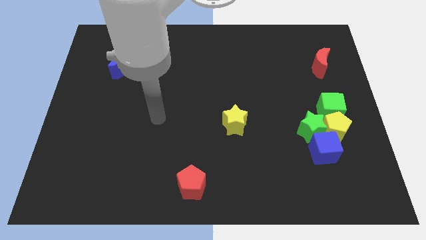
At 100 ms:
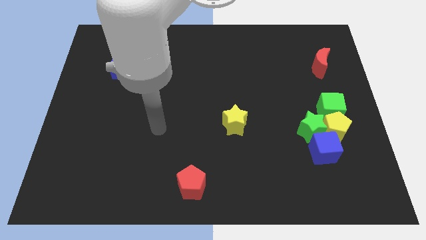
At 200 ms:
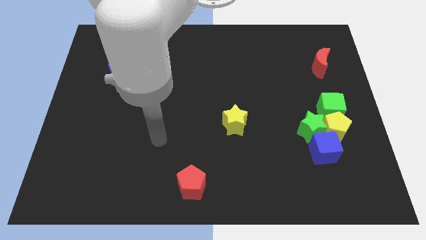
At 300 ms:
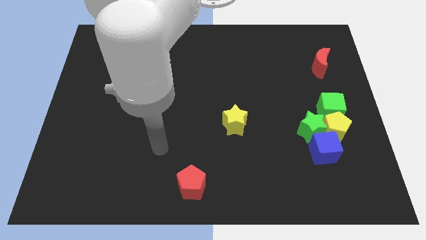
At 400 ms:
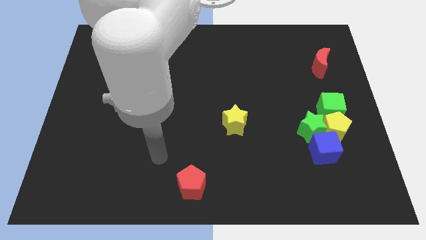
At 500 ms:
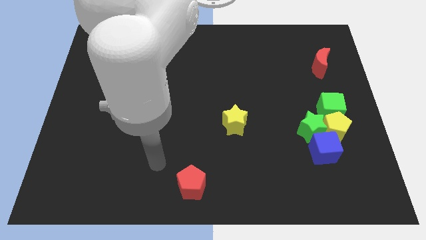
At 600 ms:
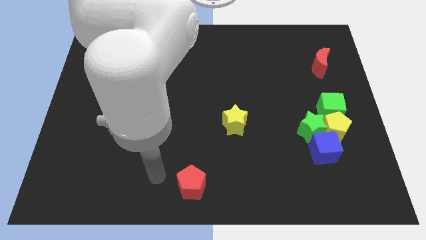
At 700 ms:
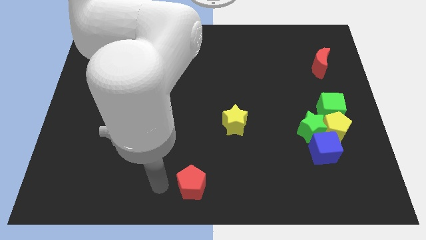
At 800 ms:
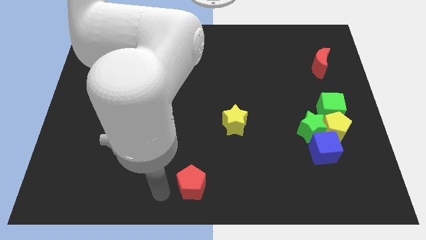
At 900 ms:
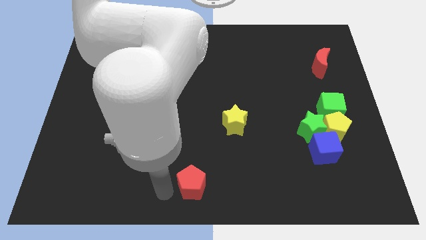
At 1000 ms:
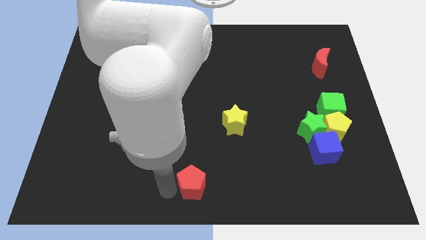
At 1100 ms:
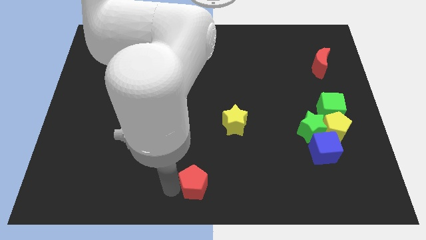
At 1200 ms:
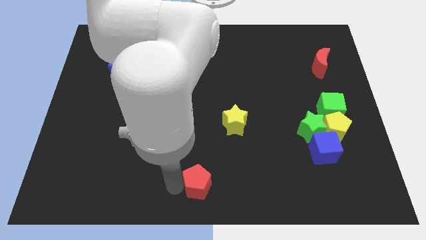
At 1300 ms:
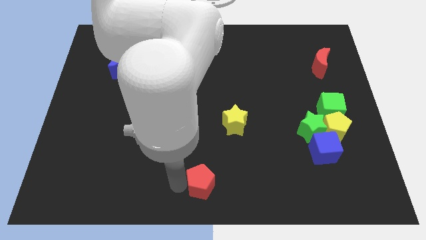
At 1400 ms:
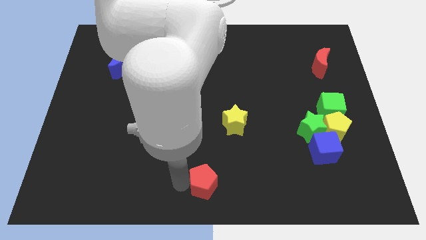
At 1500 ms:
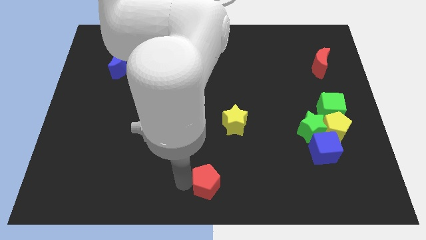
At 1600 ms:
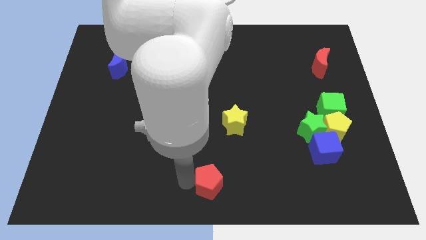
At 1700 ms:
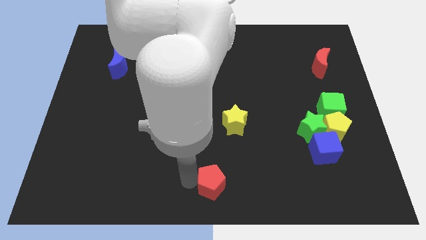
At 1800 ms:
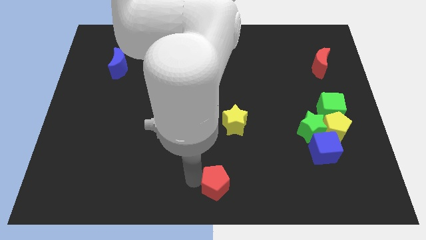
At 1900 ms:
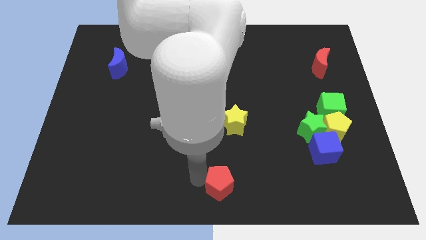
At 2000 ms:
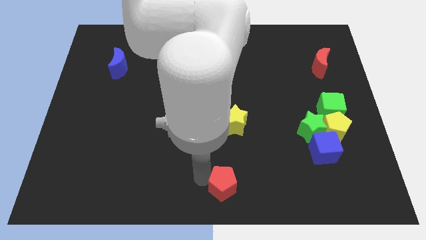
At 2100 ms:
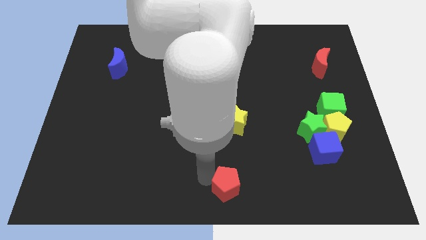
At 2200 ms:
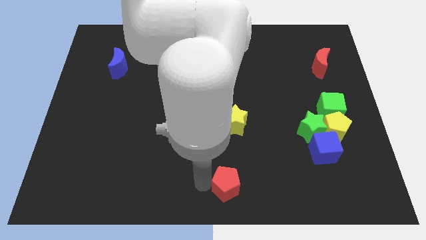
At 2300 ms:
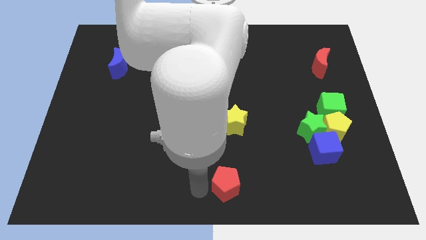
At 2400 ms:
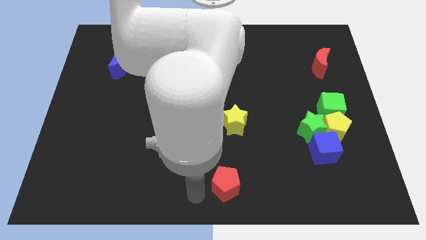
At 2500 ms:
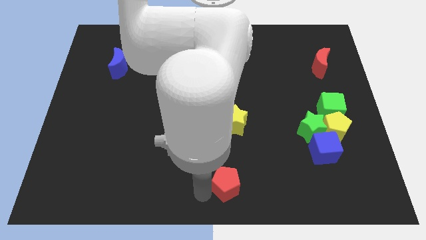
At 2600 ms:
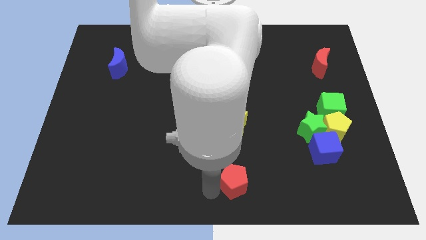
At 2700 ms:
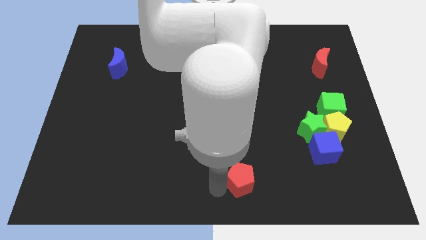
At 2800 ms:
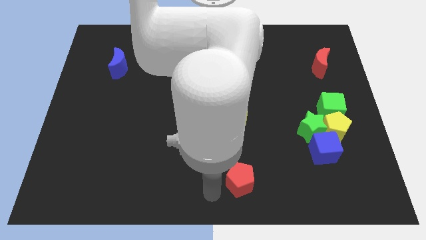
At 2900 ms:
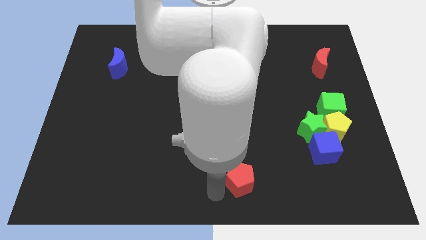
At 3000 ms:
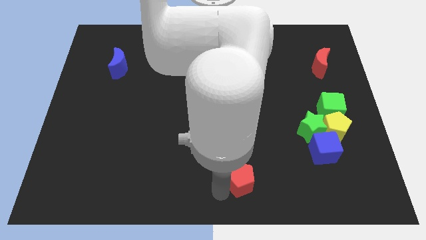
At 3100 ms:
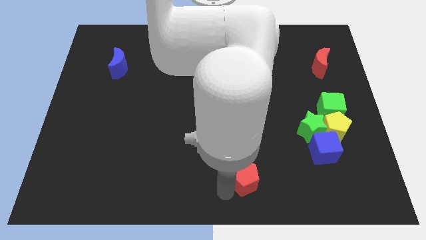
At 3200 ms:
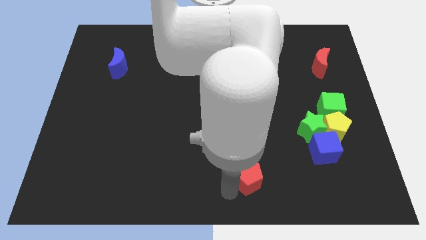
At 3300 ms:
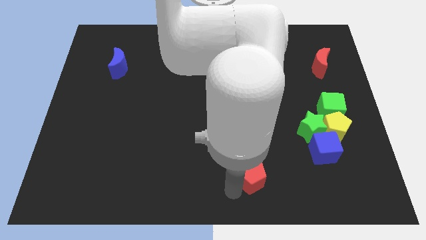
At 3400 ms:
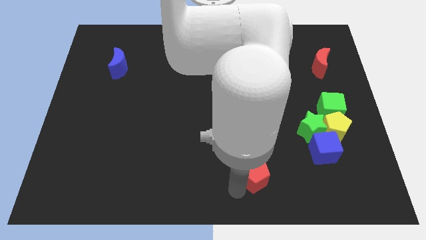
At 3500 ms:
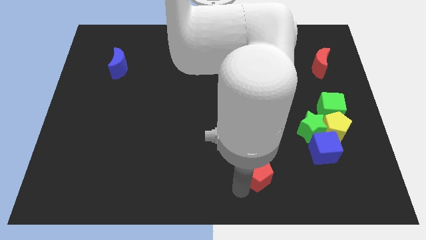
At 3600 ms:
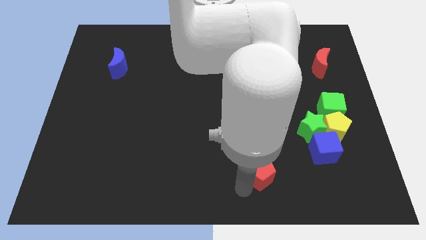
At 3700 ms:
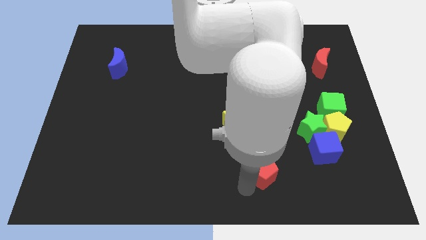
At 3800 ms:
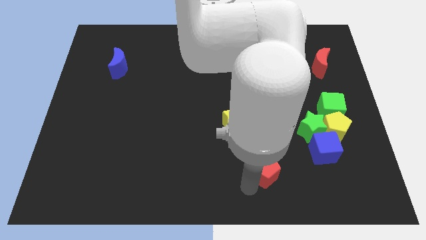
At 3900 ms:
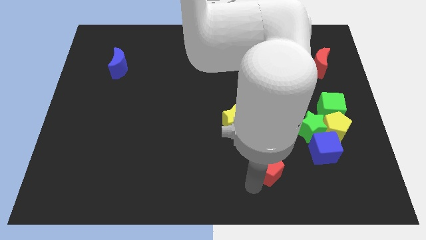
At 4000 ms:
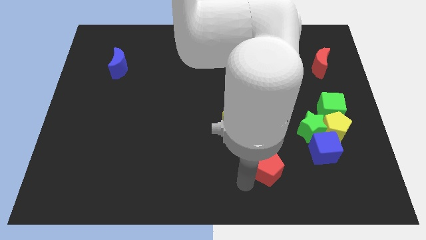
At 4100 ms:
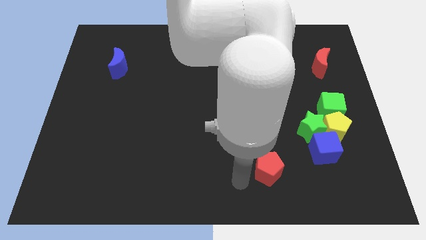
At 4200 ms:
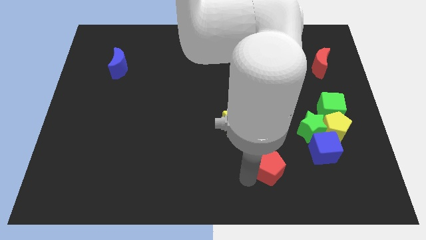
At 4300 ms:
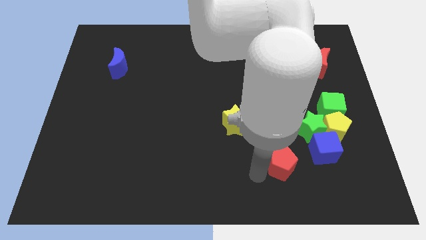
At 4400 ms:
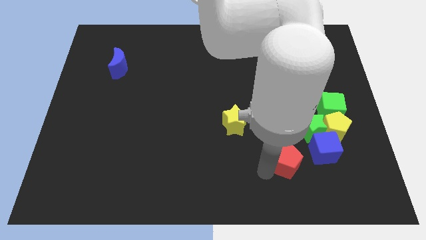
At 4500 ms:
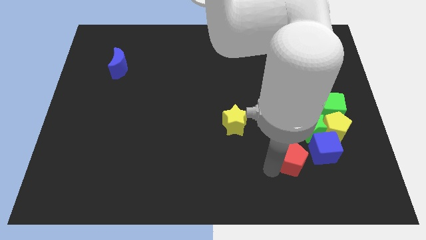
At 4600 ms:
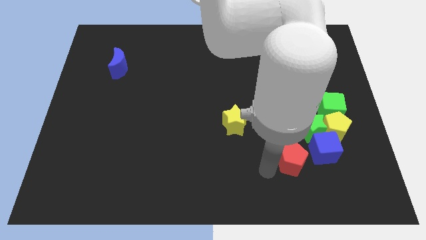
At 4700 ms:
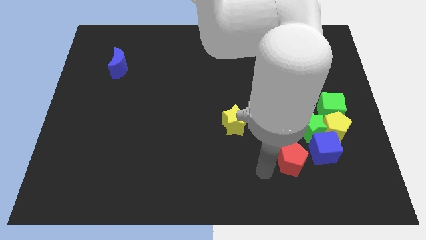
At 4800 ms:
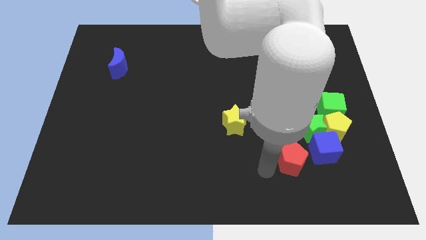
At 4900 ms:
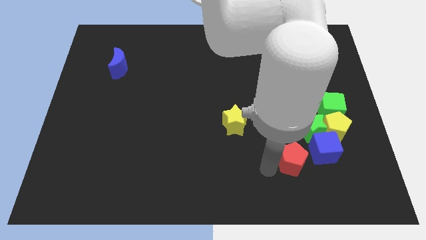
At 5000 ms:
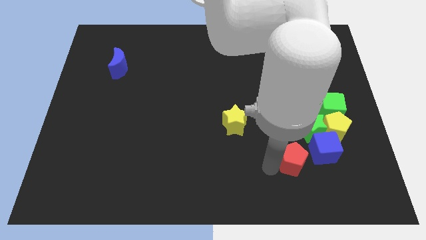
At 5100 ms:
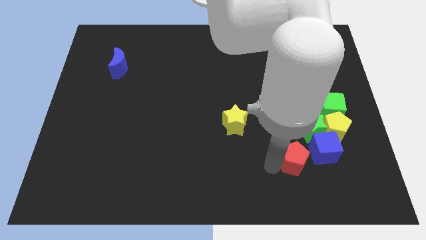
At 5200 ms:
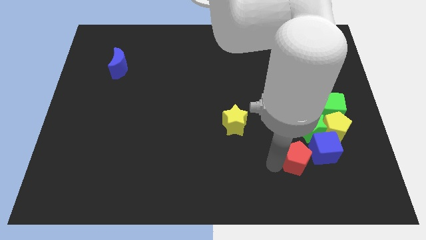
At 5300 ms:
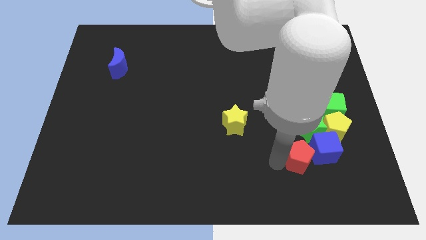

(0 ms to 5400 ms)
move the red pentagon close to the blue cube
